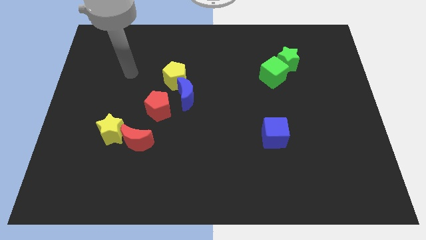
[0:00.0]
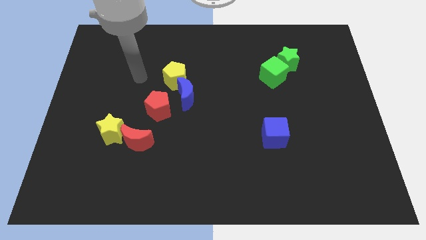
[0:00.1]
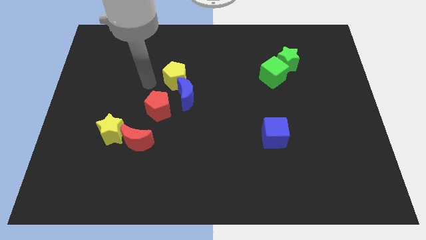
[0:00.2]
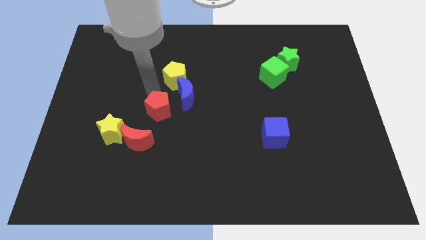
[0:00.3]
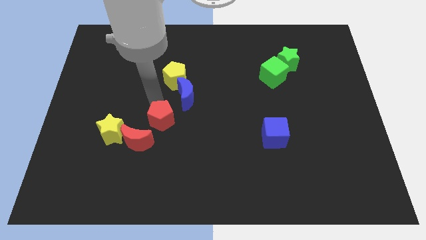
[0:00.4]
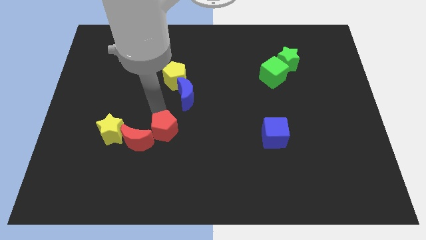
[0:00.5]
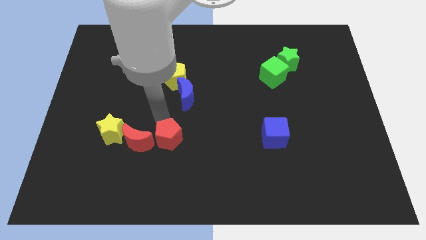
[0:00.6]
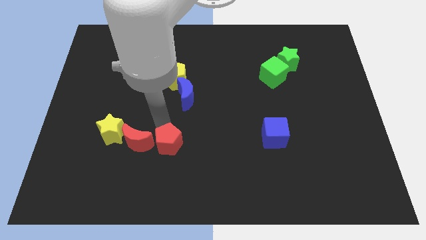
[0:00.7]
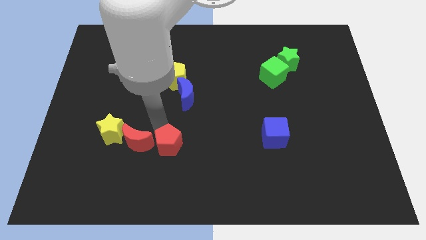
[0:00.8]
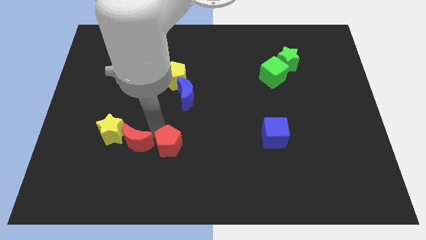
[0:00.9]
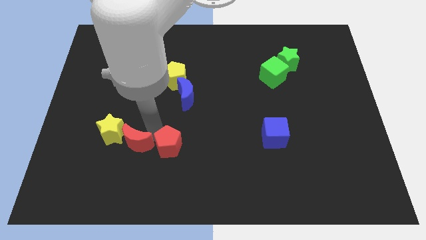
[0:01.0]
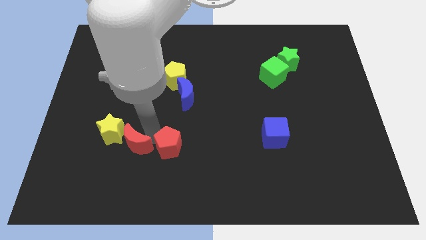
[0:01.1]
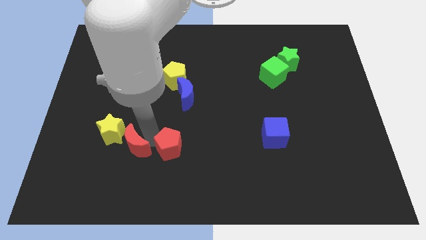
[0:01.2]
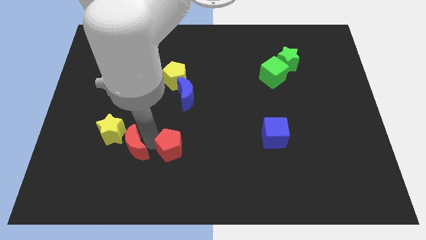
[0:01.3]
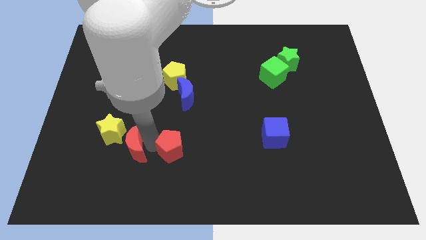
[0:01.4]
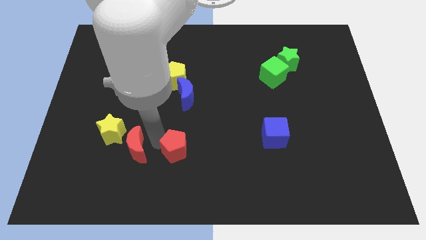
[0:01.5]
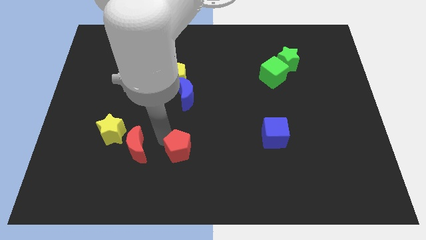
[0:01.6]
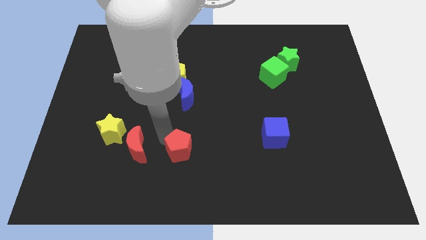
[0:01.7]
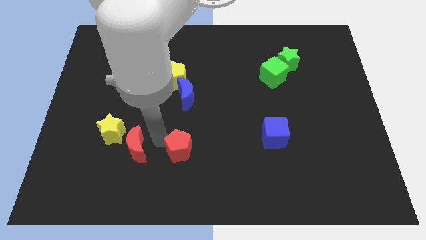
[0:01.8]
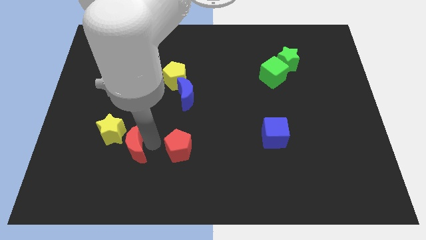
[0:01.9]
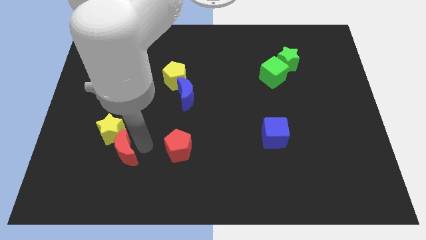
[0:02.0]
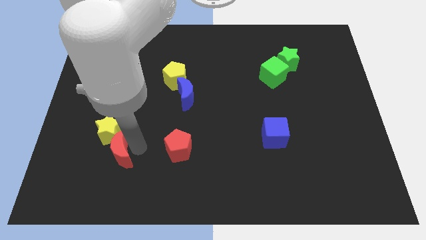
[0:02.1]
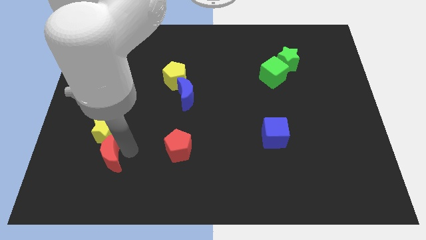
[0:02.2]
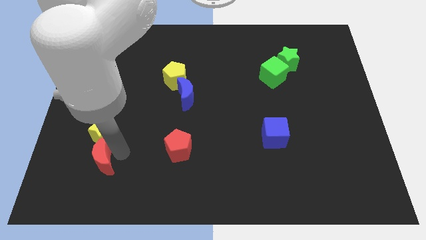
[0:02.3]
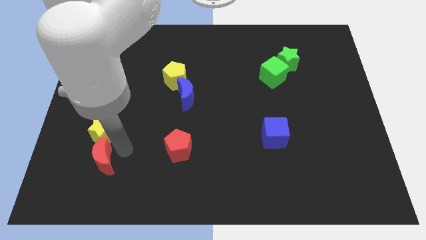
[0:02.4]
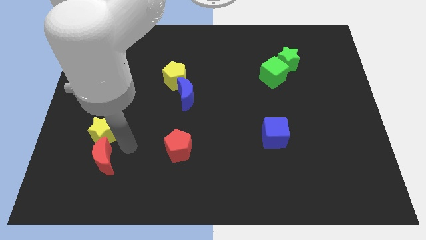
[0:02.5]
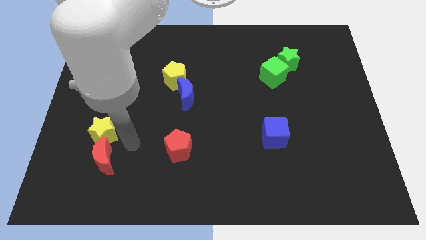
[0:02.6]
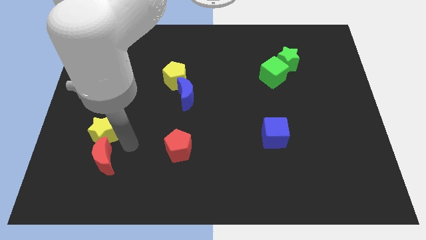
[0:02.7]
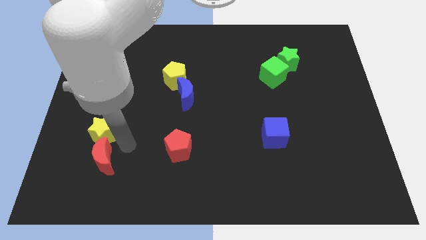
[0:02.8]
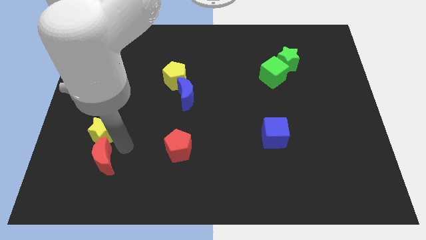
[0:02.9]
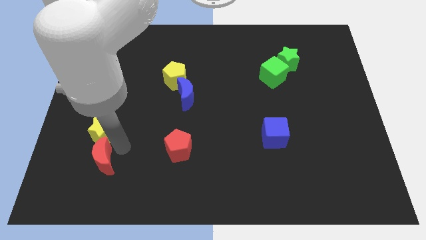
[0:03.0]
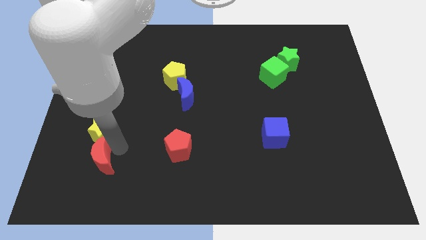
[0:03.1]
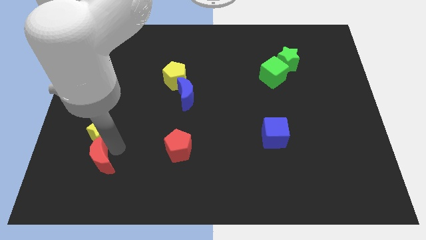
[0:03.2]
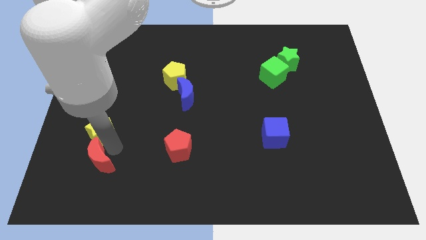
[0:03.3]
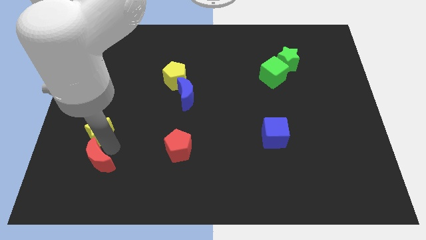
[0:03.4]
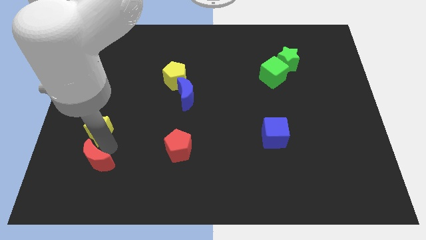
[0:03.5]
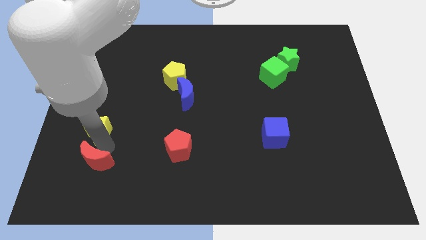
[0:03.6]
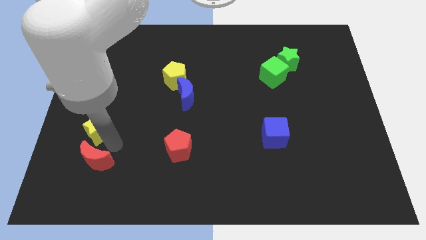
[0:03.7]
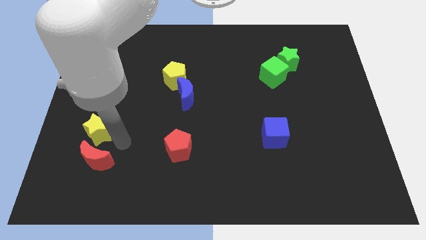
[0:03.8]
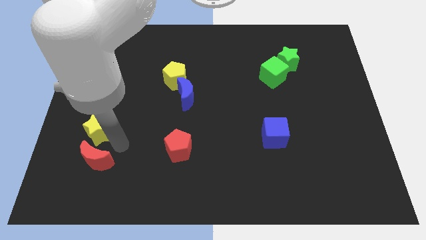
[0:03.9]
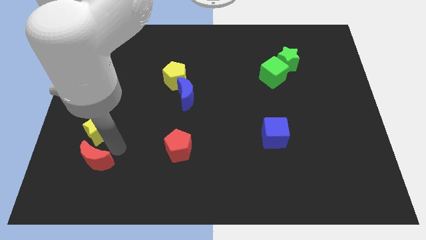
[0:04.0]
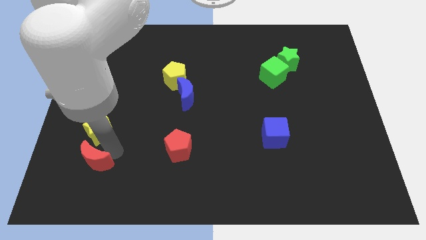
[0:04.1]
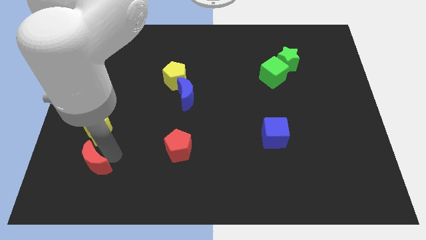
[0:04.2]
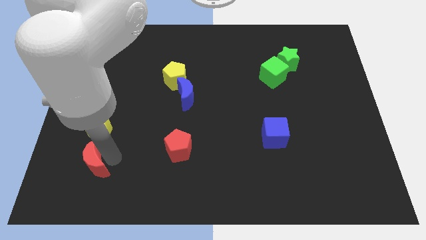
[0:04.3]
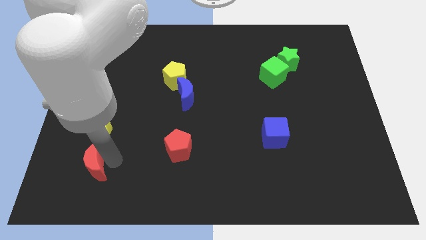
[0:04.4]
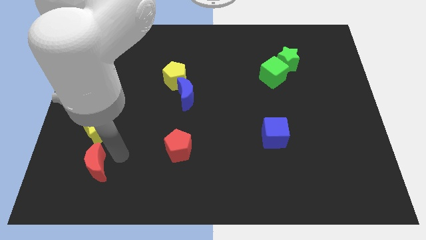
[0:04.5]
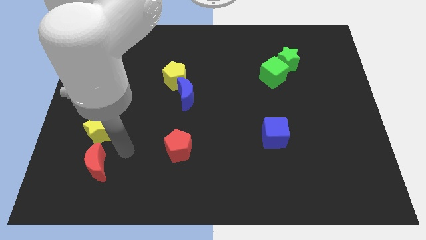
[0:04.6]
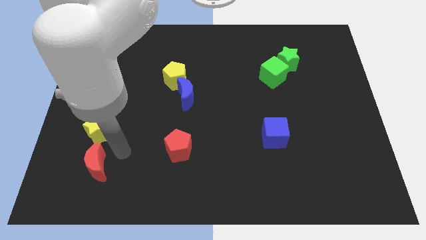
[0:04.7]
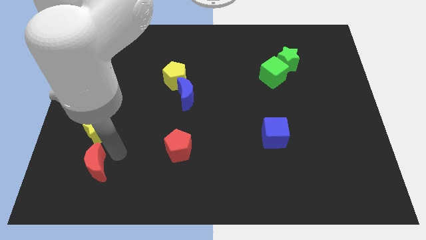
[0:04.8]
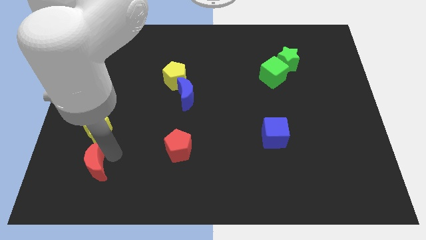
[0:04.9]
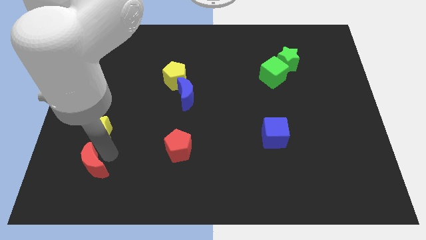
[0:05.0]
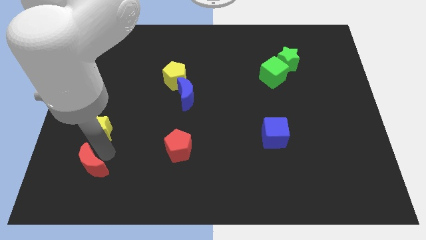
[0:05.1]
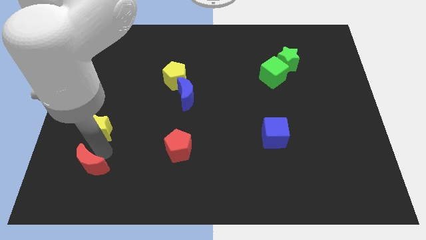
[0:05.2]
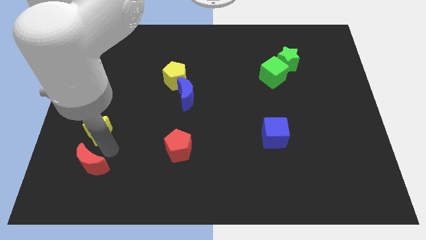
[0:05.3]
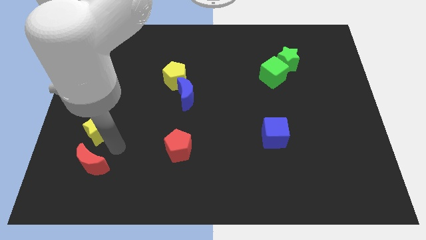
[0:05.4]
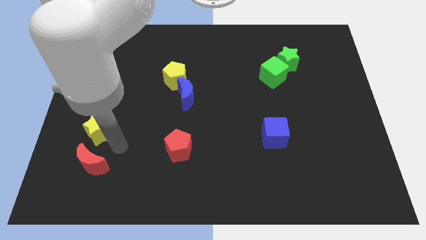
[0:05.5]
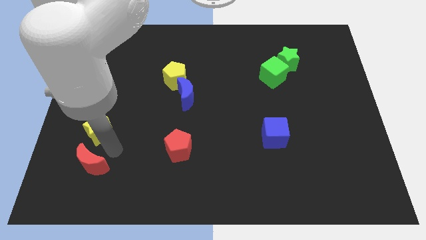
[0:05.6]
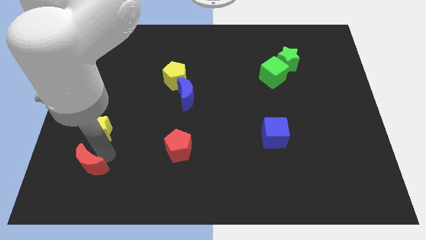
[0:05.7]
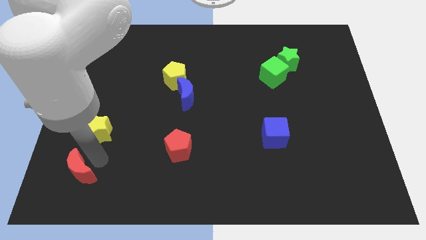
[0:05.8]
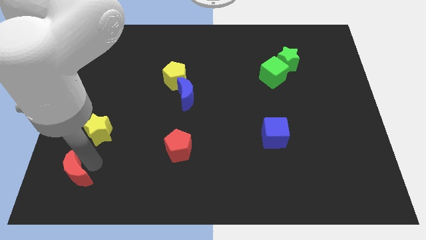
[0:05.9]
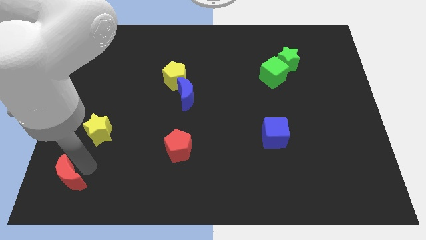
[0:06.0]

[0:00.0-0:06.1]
put the red moon to the lower left corner
